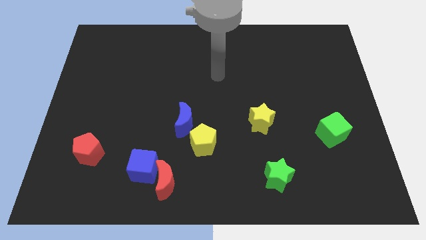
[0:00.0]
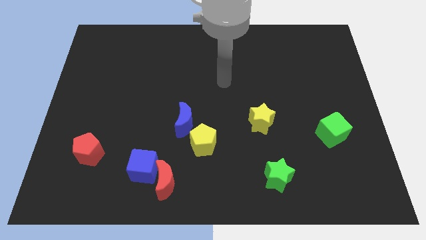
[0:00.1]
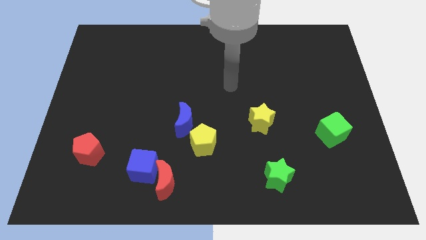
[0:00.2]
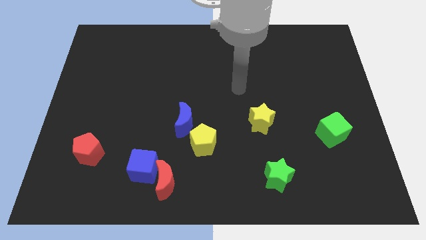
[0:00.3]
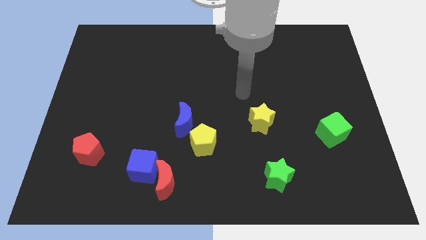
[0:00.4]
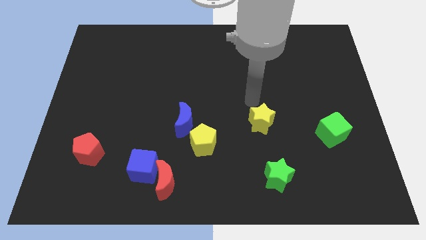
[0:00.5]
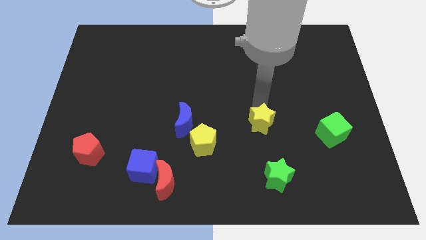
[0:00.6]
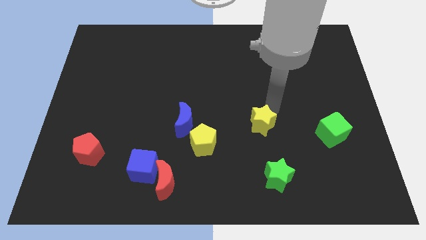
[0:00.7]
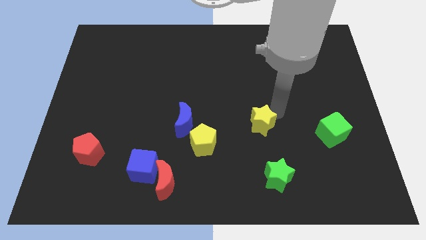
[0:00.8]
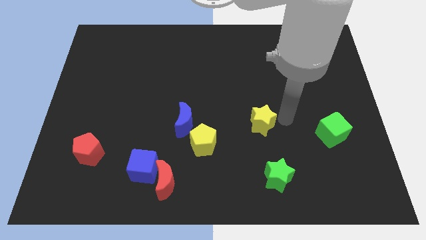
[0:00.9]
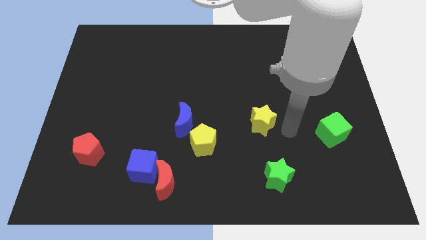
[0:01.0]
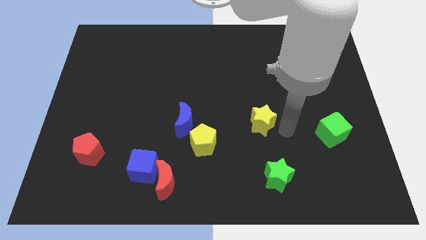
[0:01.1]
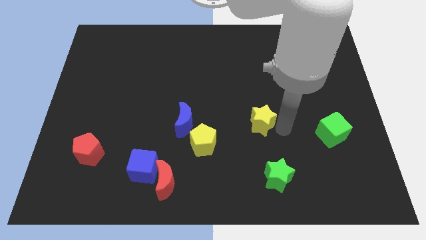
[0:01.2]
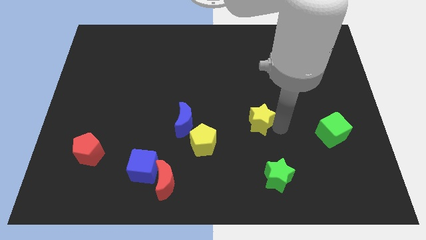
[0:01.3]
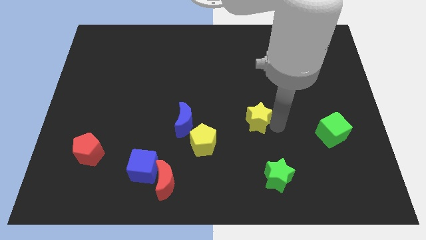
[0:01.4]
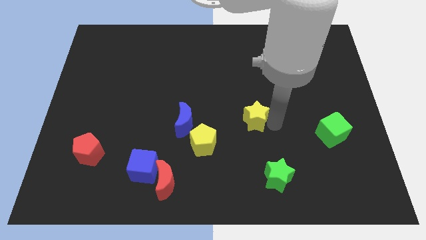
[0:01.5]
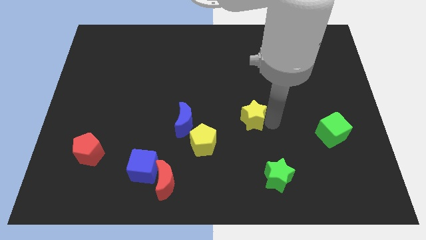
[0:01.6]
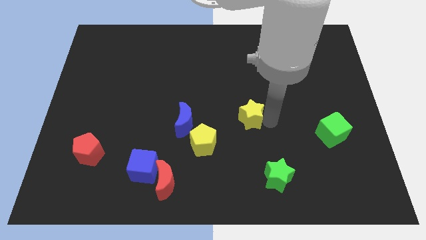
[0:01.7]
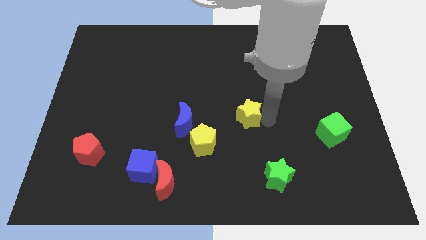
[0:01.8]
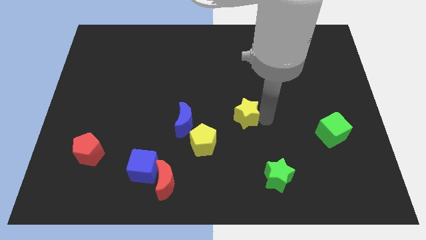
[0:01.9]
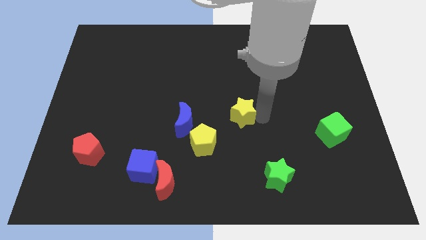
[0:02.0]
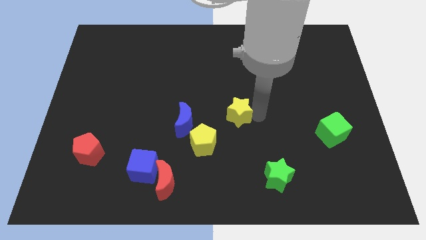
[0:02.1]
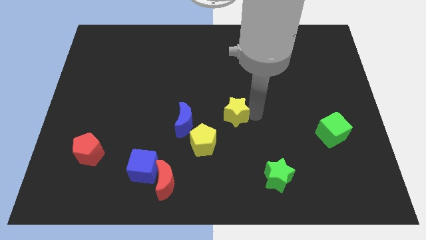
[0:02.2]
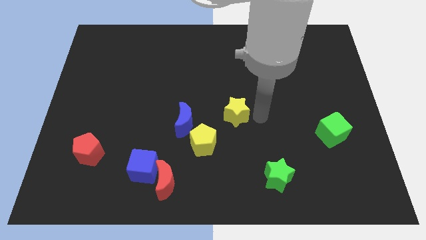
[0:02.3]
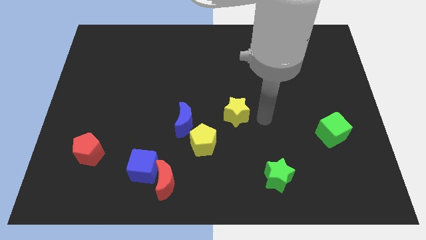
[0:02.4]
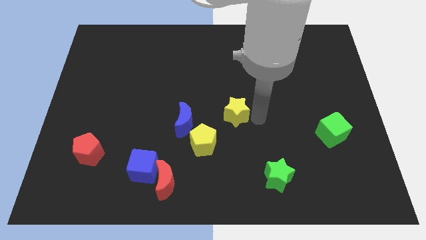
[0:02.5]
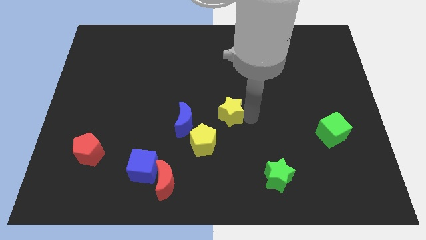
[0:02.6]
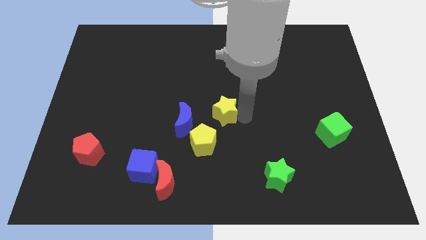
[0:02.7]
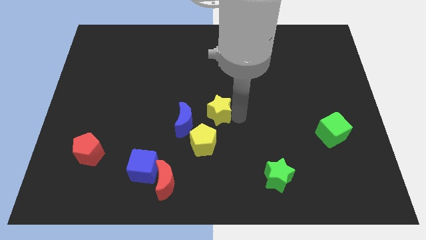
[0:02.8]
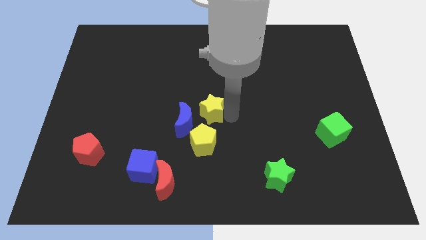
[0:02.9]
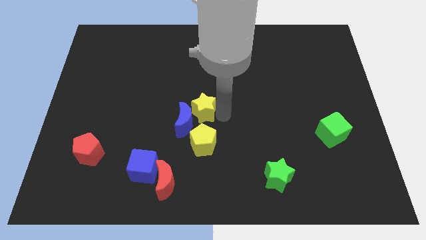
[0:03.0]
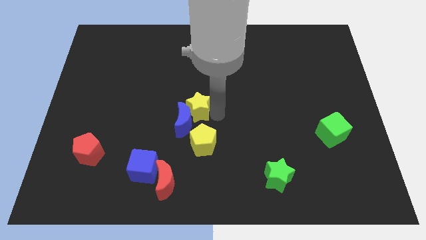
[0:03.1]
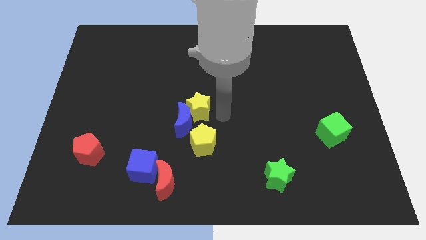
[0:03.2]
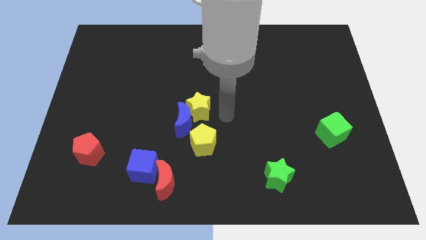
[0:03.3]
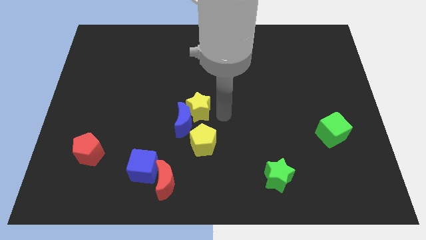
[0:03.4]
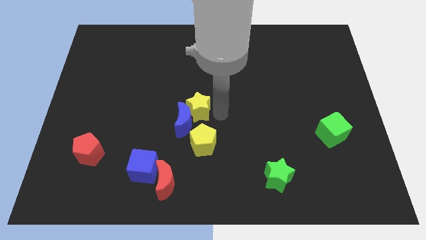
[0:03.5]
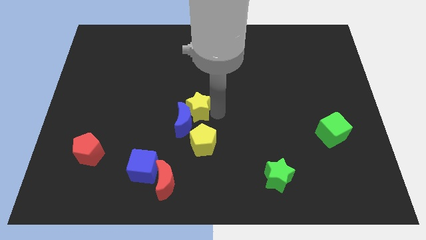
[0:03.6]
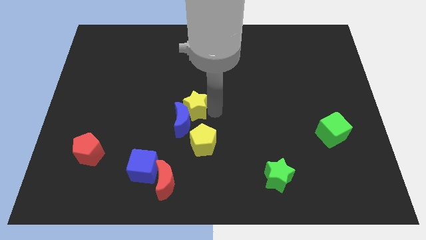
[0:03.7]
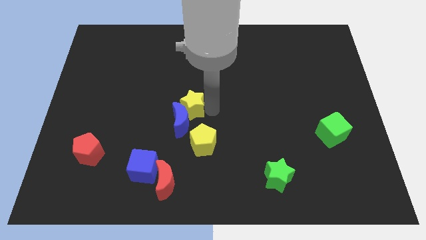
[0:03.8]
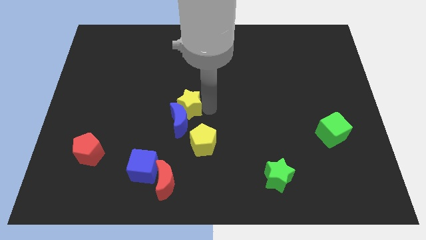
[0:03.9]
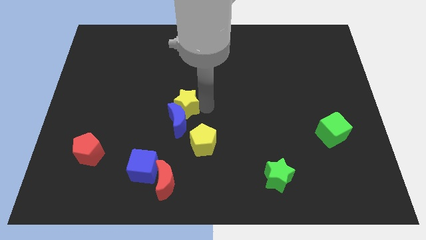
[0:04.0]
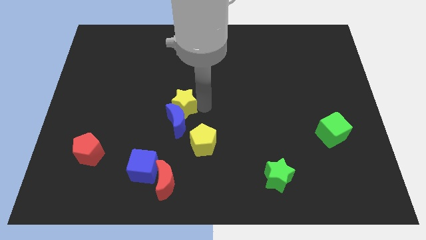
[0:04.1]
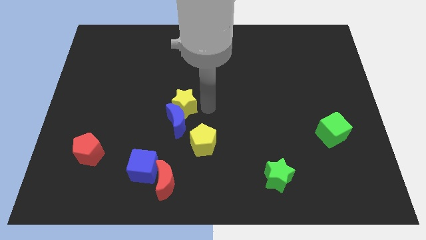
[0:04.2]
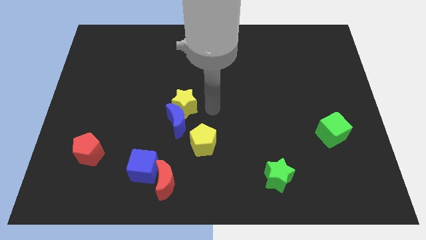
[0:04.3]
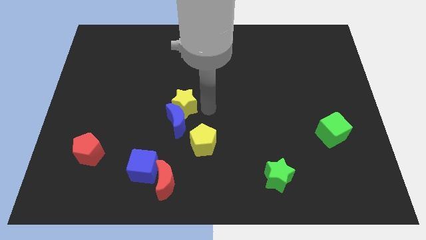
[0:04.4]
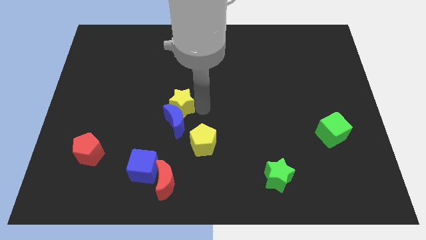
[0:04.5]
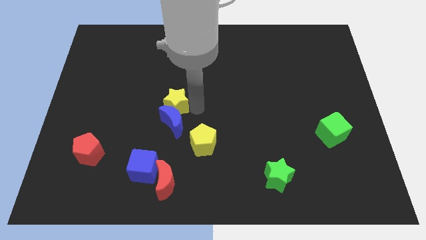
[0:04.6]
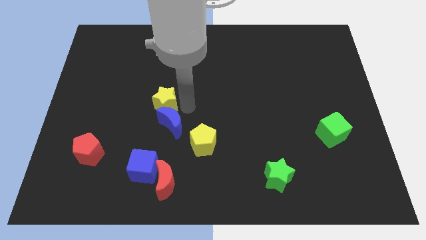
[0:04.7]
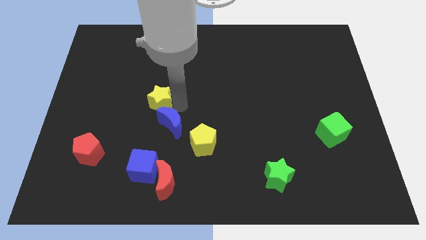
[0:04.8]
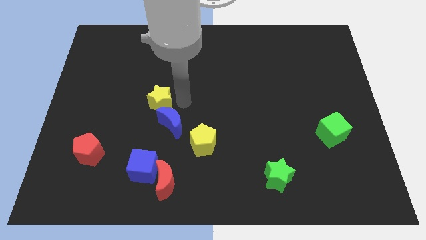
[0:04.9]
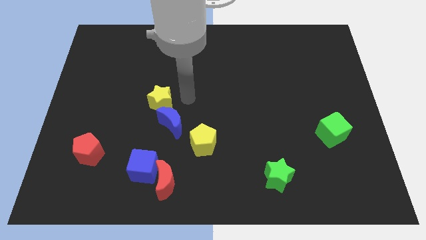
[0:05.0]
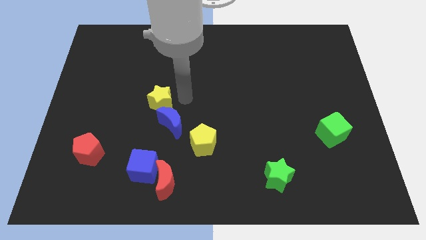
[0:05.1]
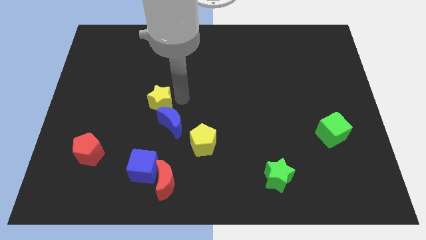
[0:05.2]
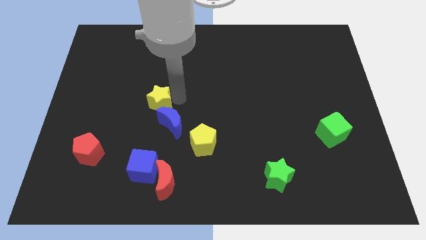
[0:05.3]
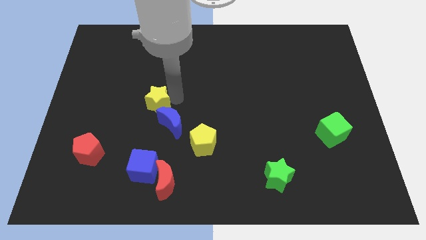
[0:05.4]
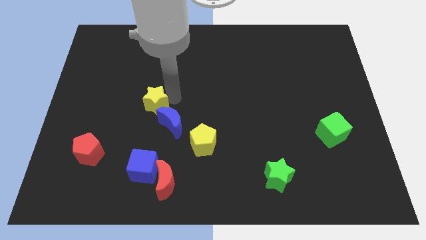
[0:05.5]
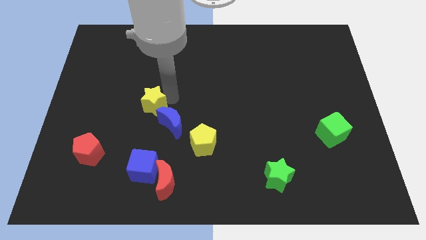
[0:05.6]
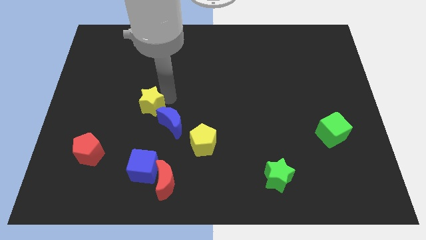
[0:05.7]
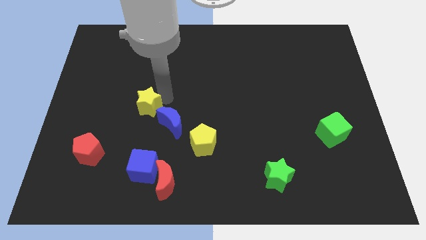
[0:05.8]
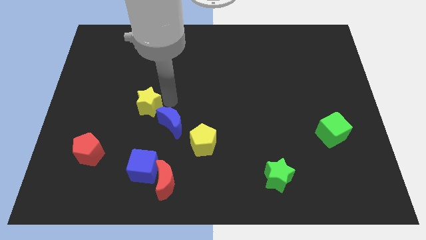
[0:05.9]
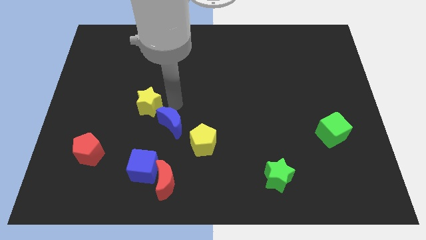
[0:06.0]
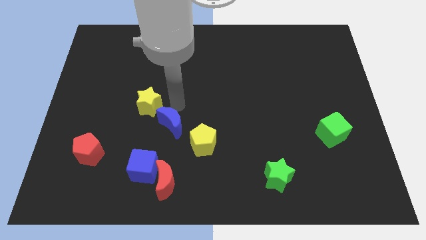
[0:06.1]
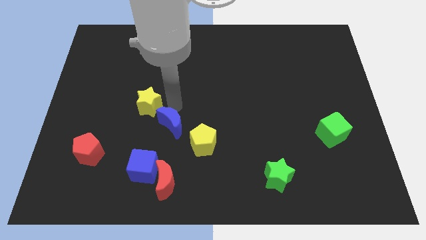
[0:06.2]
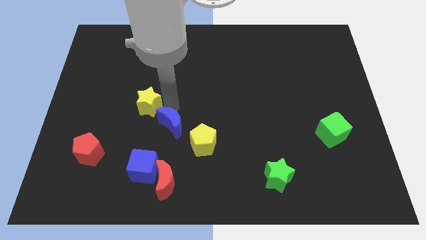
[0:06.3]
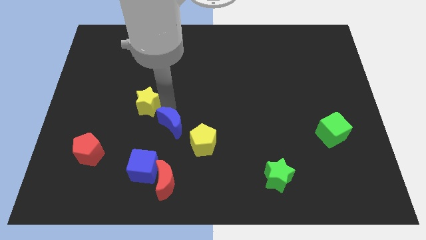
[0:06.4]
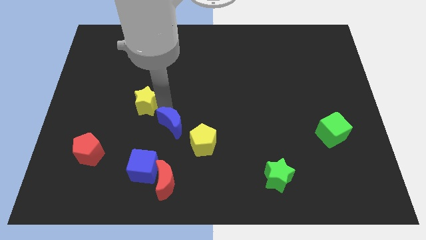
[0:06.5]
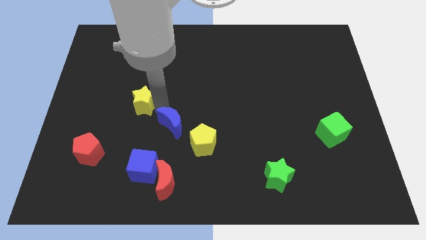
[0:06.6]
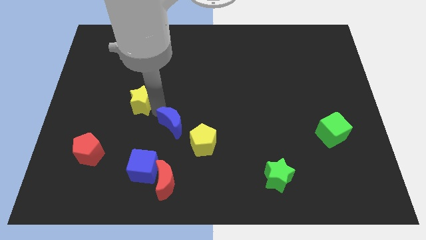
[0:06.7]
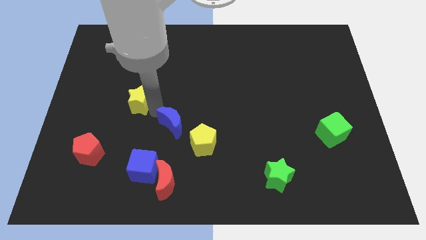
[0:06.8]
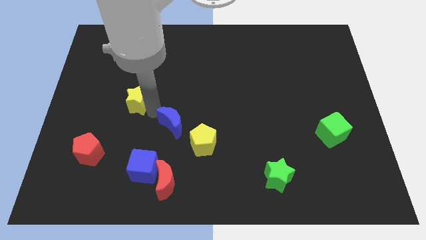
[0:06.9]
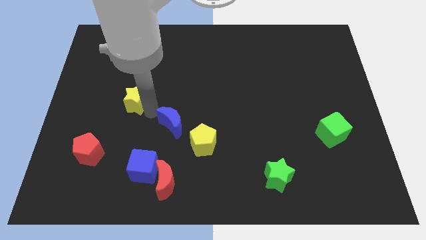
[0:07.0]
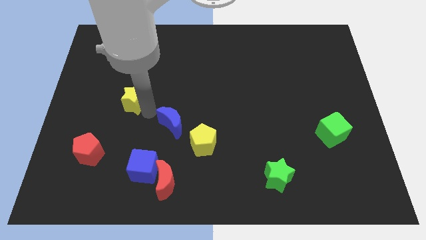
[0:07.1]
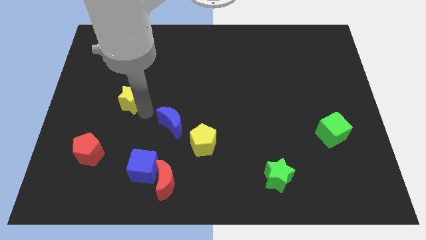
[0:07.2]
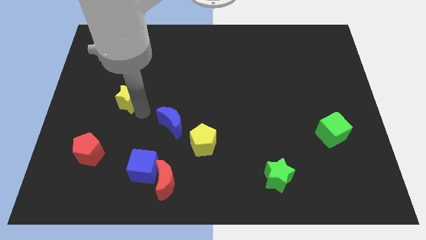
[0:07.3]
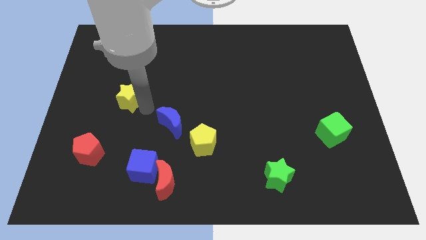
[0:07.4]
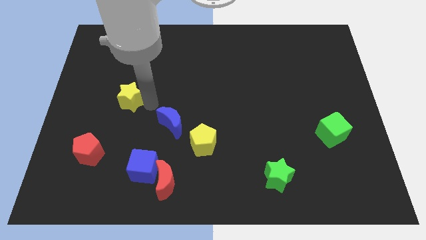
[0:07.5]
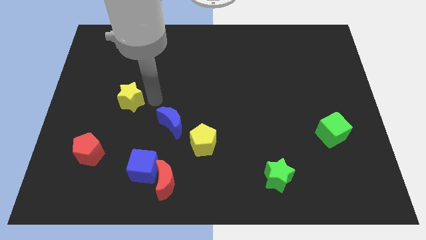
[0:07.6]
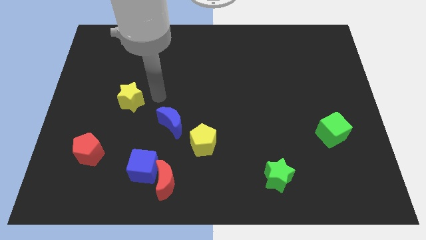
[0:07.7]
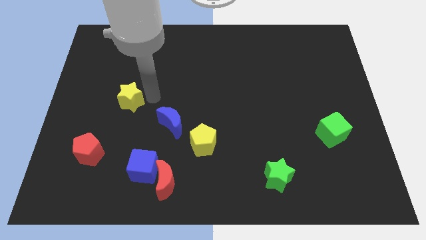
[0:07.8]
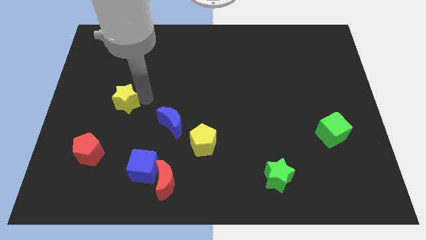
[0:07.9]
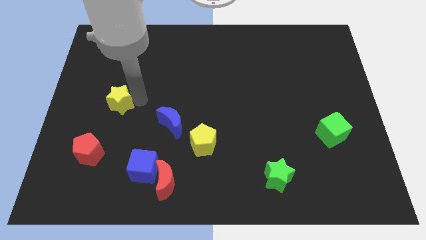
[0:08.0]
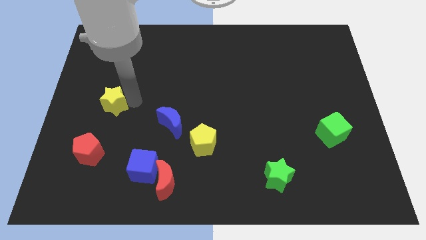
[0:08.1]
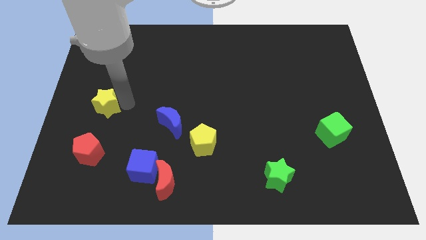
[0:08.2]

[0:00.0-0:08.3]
move the yellow star to the left side
